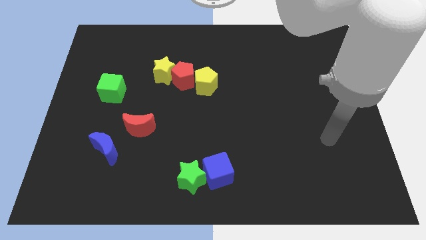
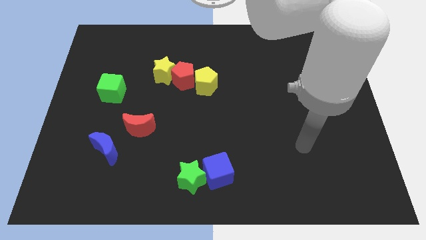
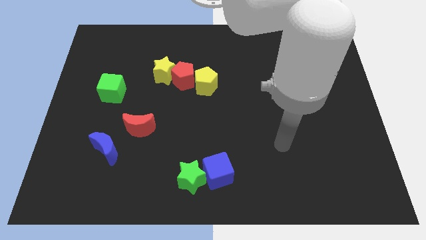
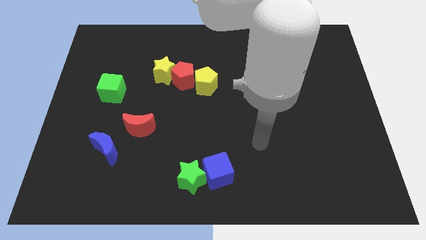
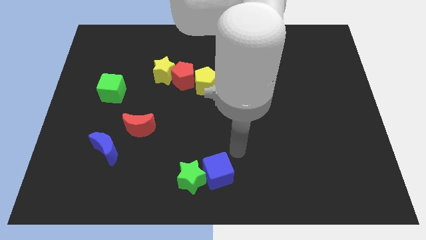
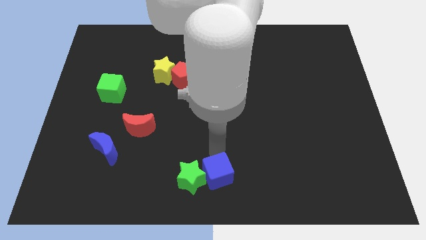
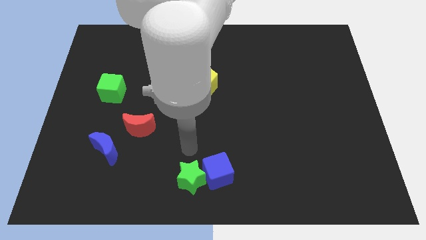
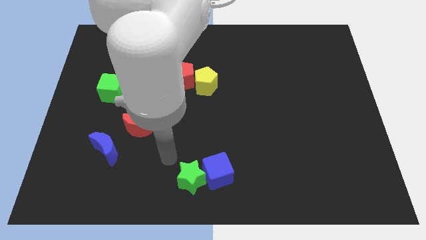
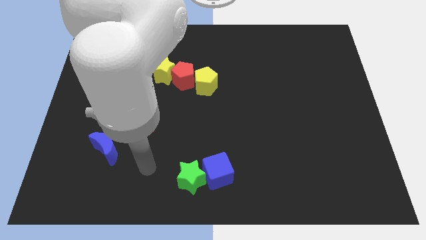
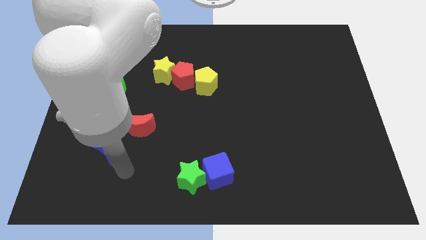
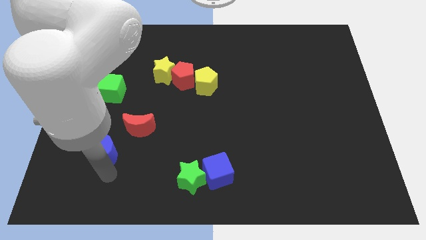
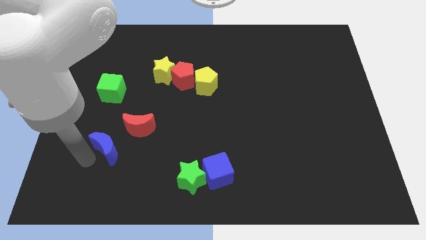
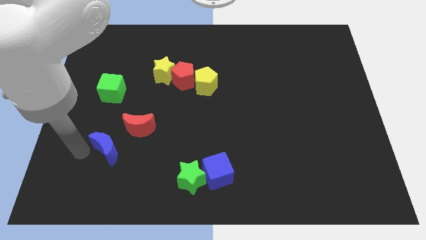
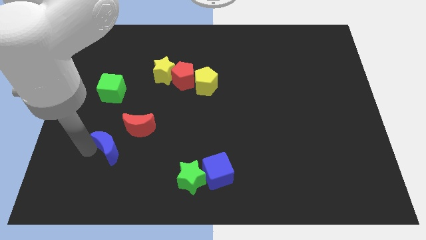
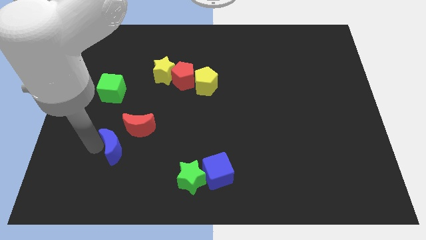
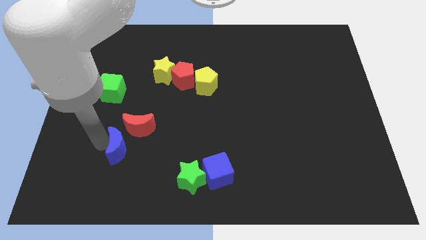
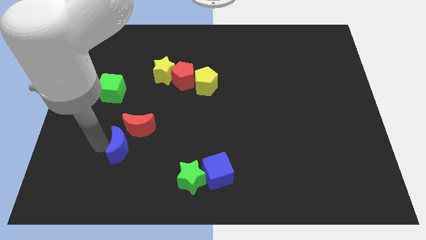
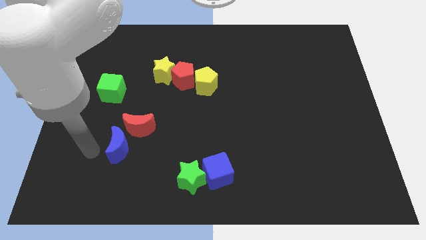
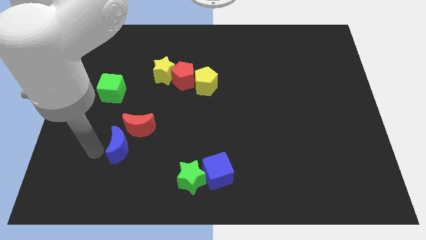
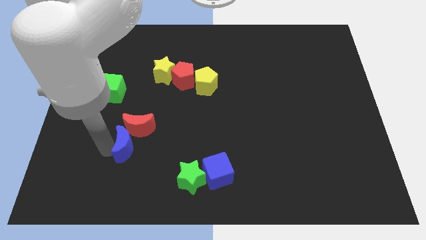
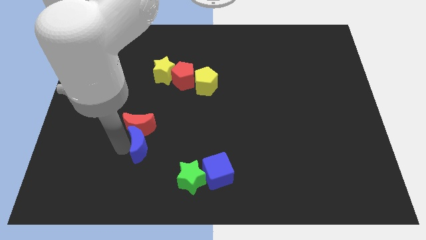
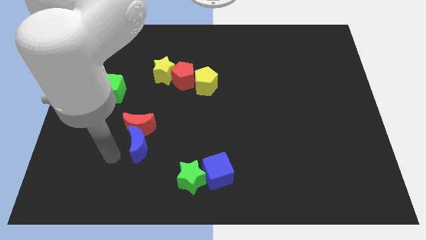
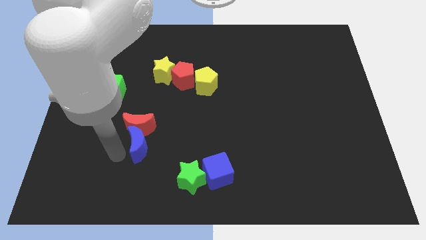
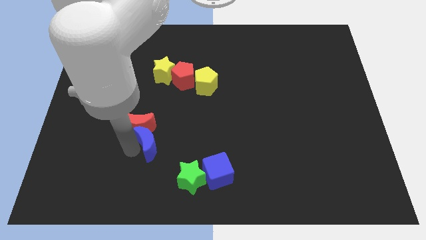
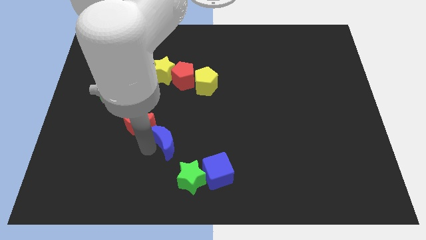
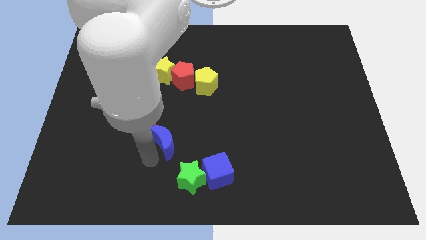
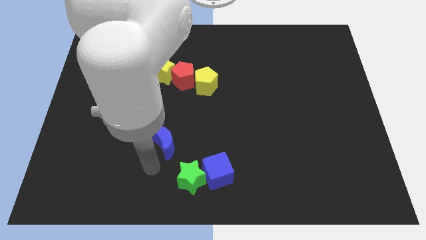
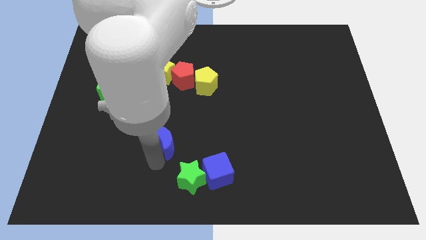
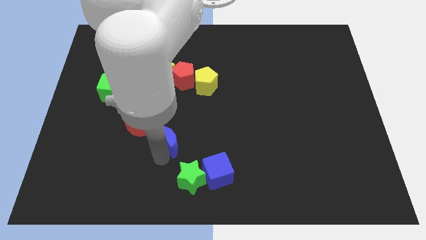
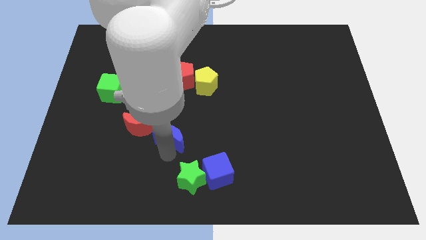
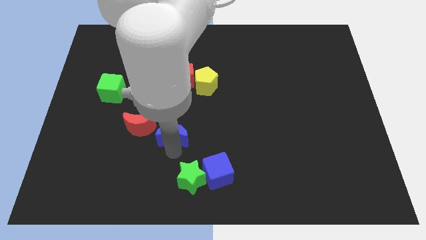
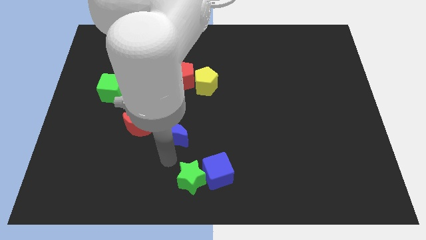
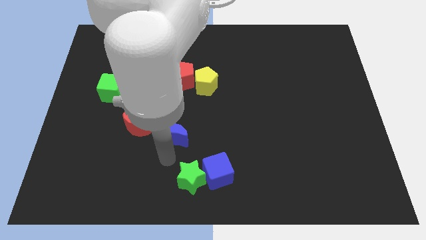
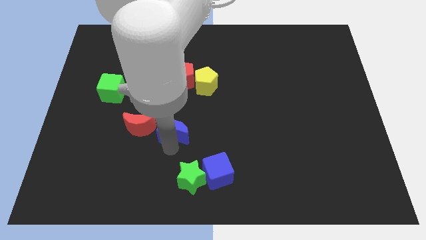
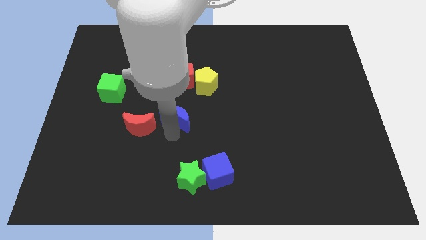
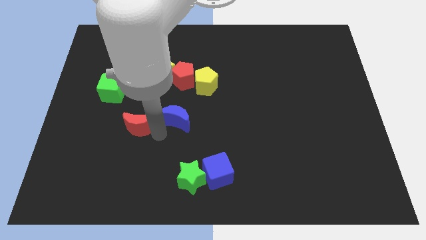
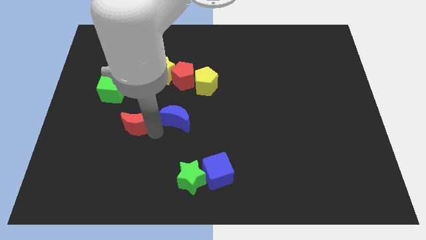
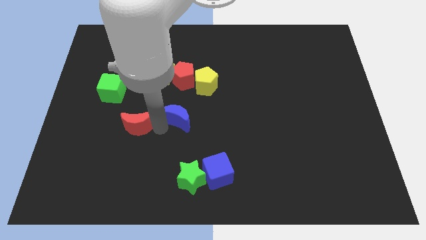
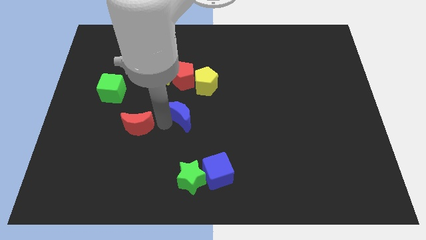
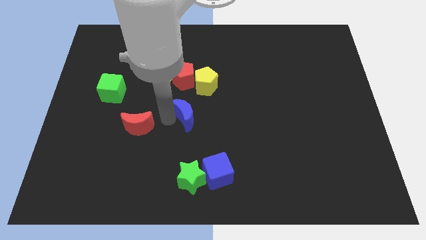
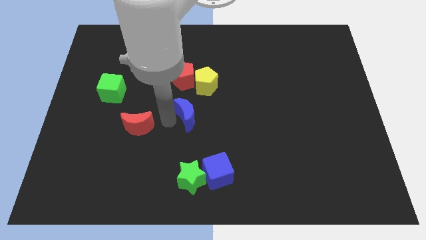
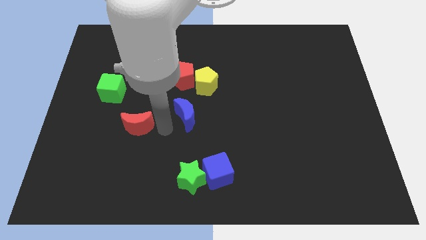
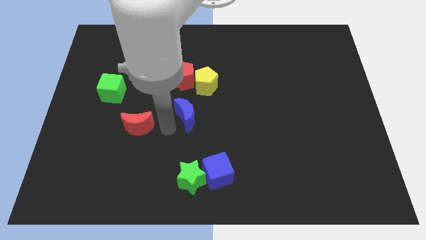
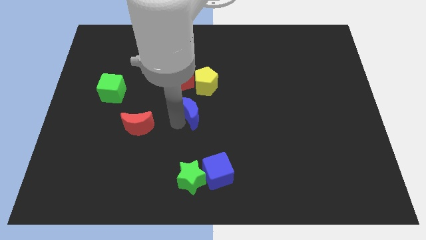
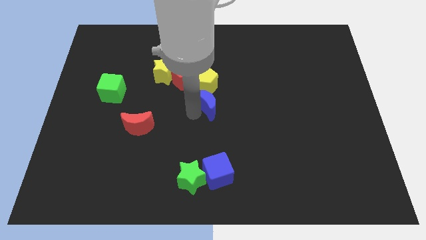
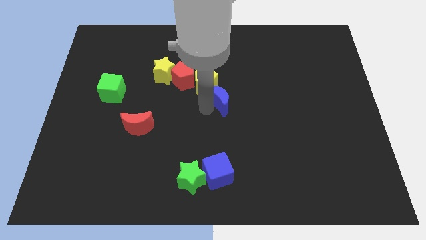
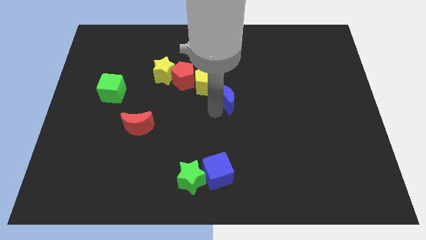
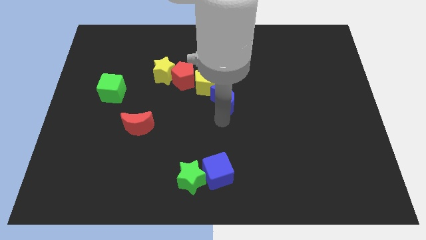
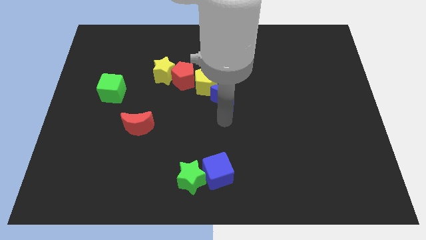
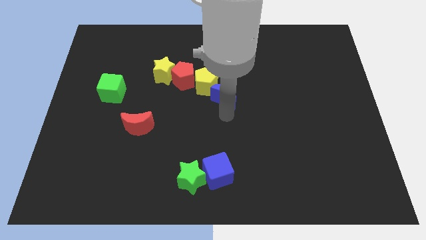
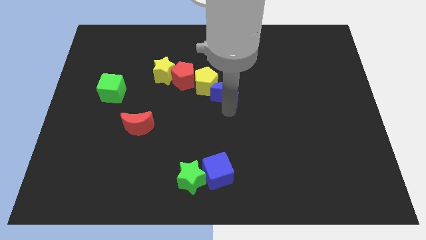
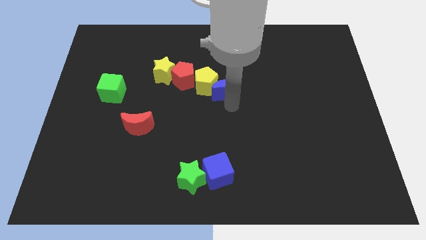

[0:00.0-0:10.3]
slide the blue moon to the right of the red pentagon

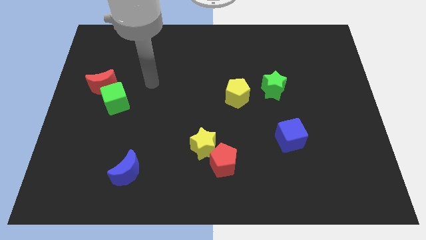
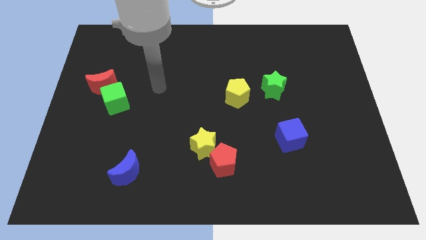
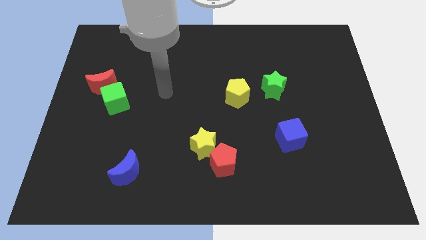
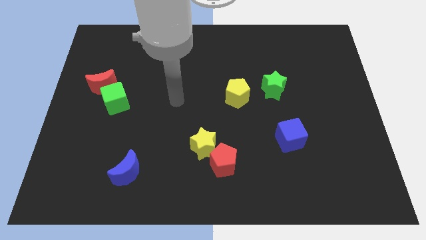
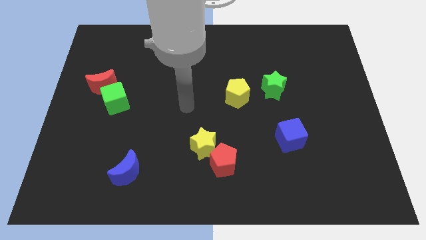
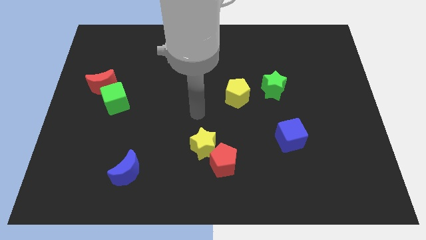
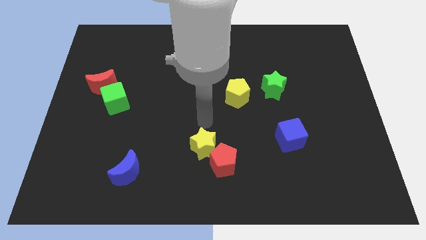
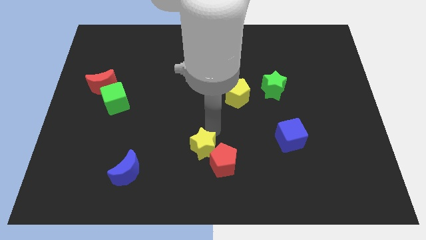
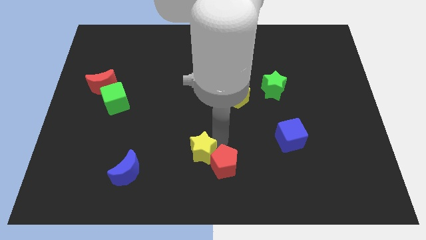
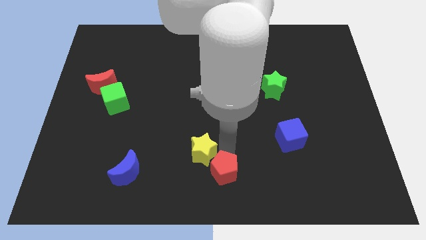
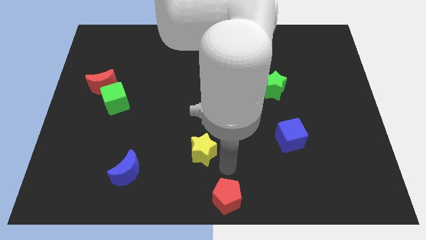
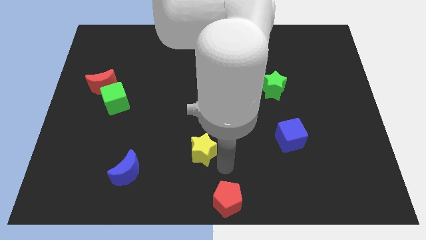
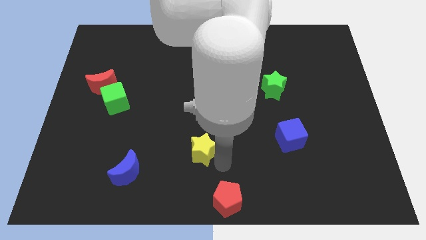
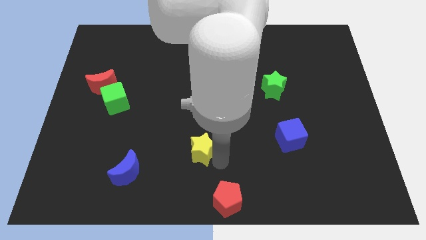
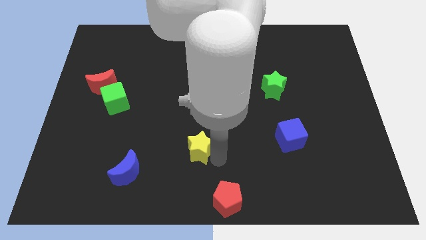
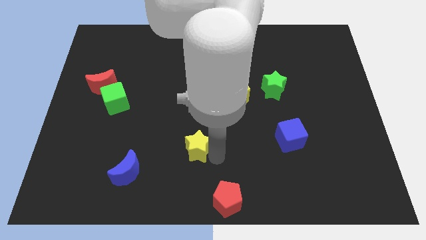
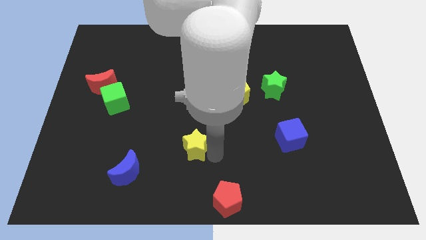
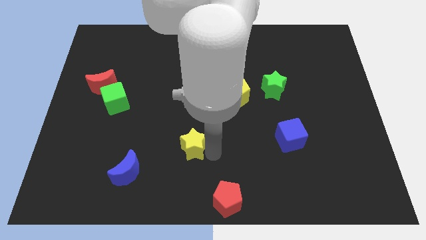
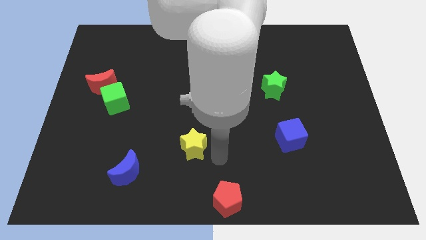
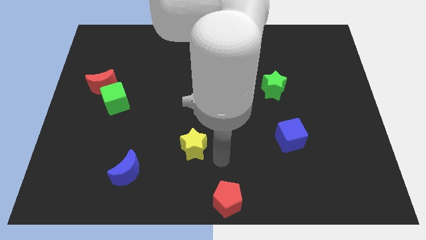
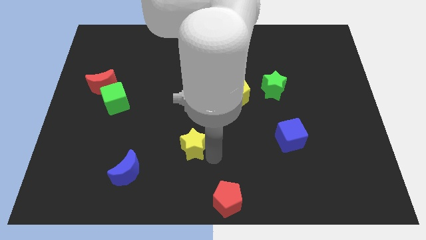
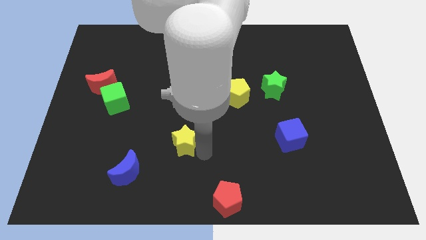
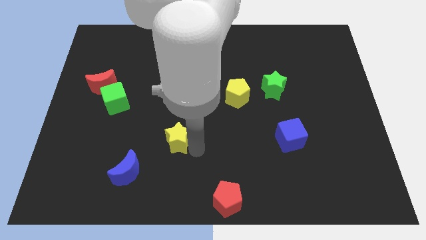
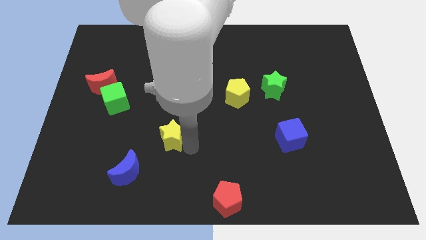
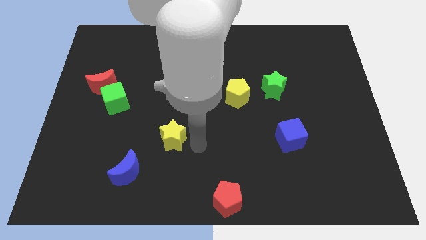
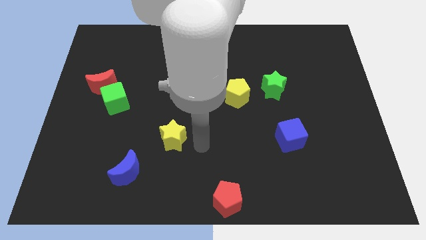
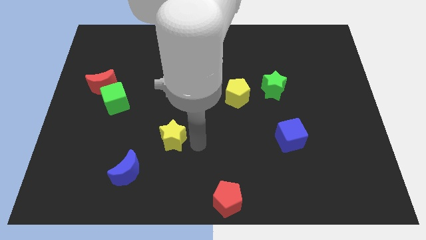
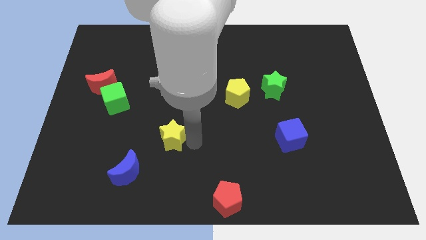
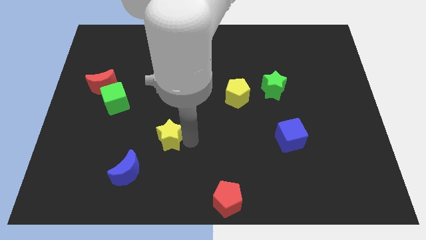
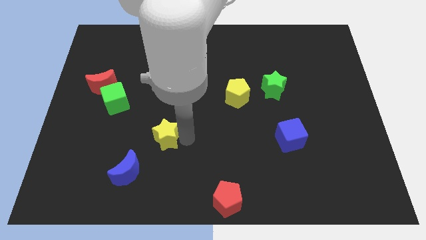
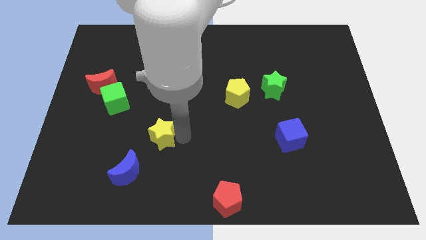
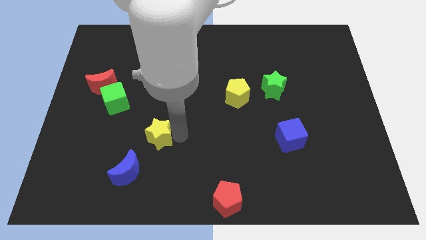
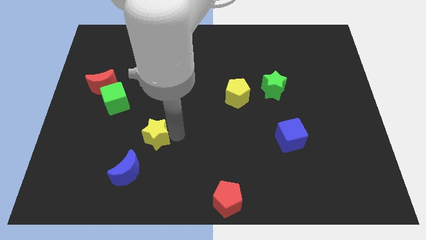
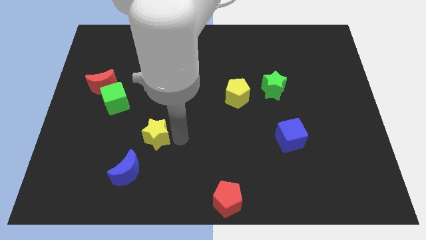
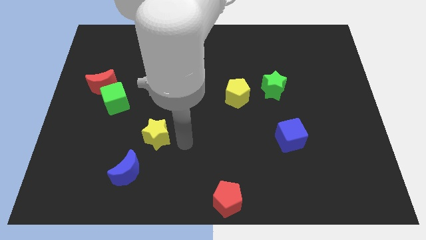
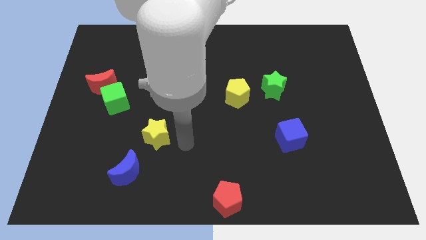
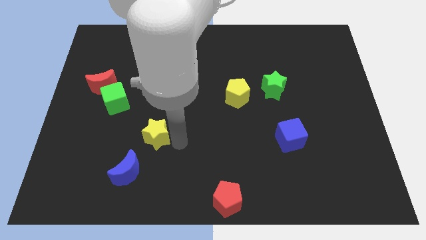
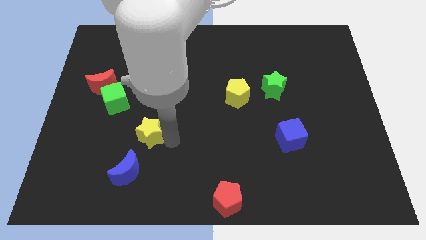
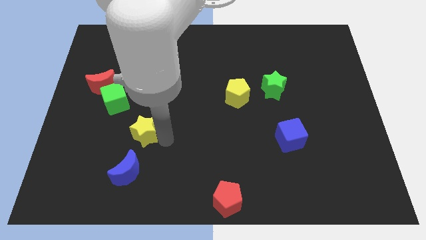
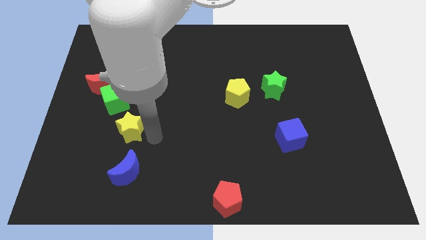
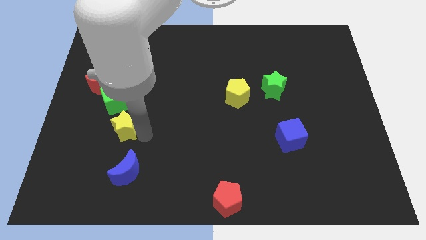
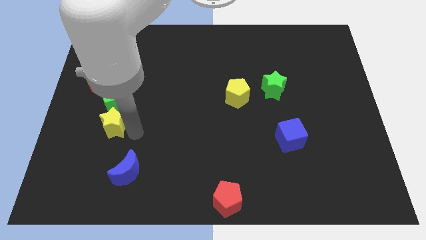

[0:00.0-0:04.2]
slide the yellow star to the bottom side of the red moon
